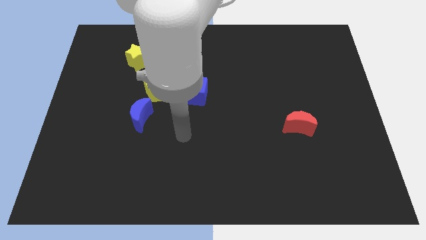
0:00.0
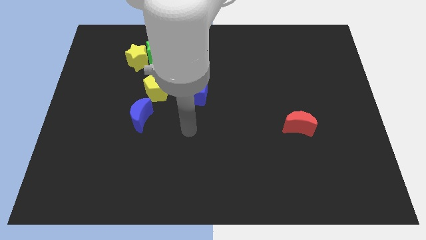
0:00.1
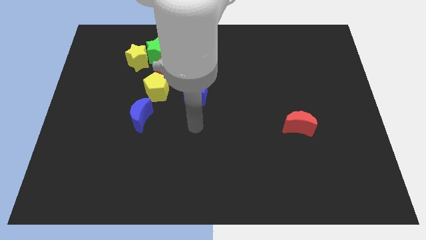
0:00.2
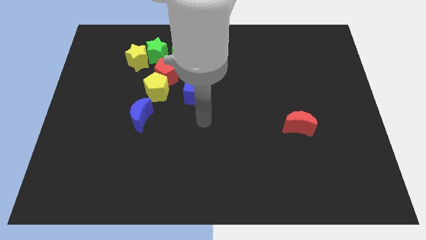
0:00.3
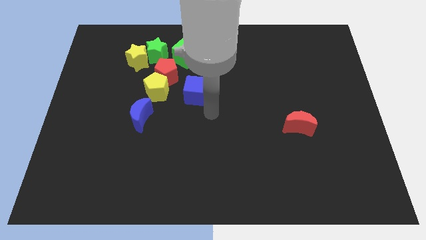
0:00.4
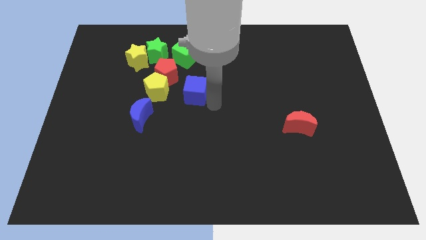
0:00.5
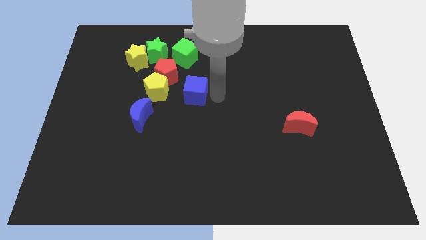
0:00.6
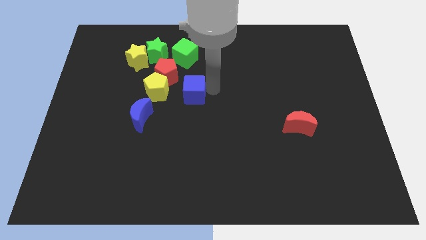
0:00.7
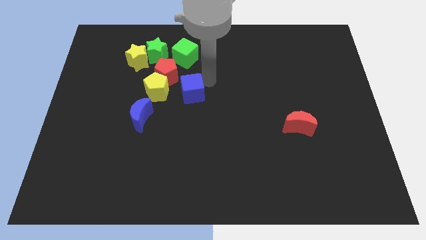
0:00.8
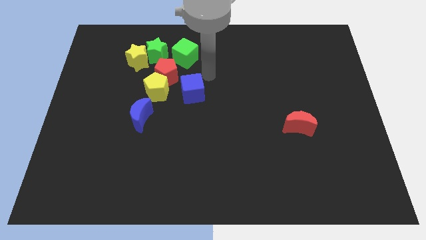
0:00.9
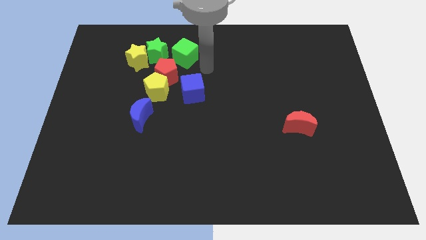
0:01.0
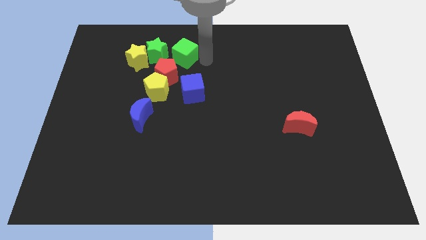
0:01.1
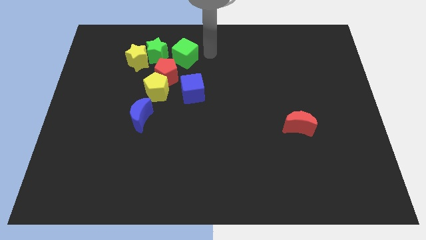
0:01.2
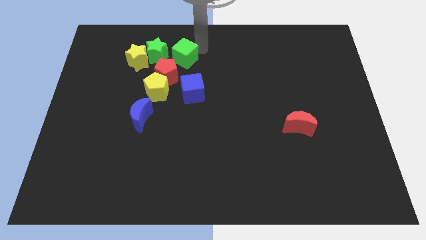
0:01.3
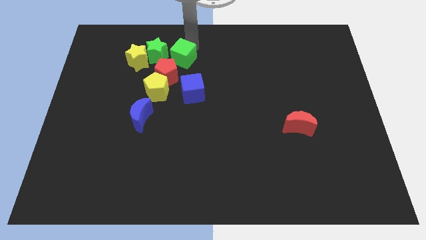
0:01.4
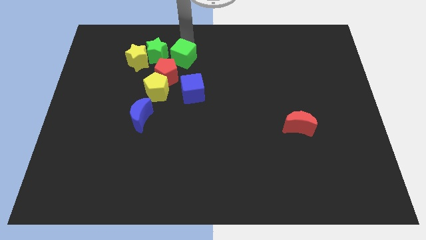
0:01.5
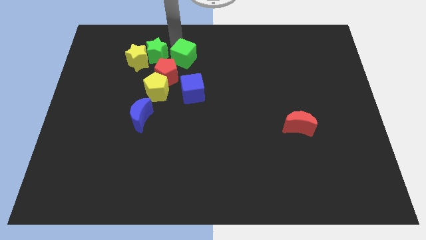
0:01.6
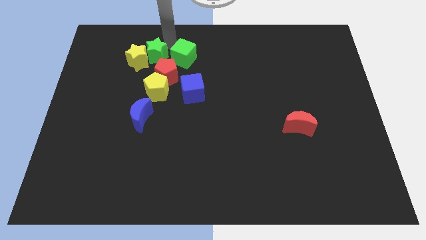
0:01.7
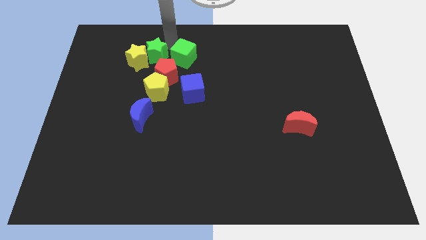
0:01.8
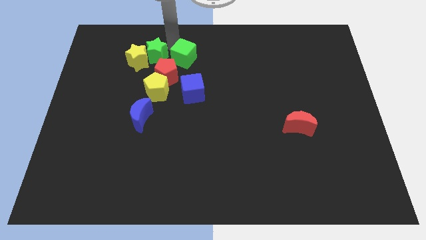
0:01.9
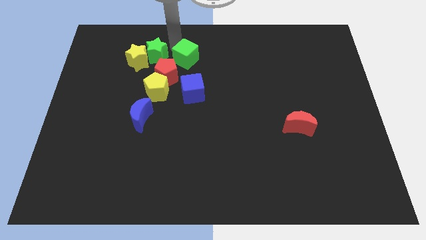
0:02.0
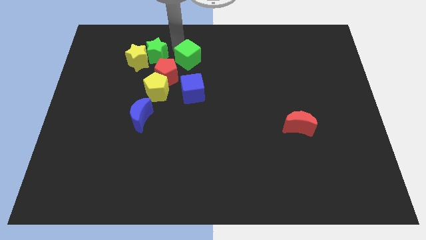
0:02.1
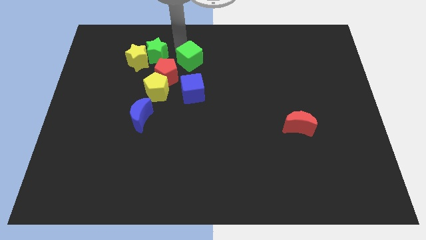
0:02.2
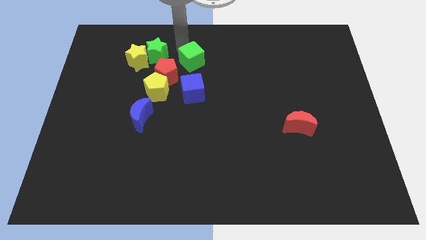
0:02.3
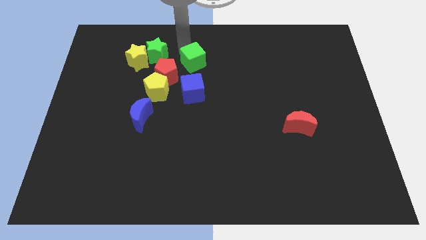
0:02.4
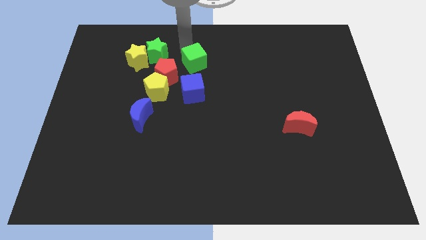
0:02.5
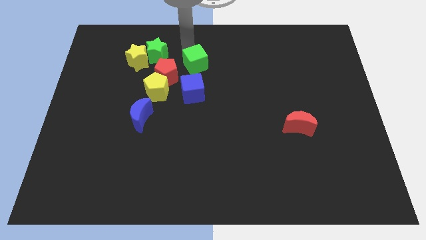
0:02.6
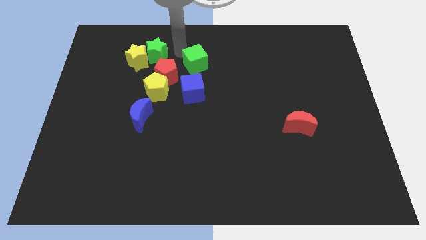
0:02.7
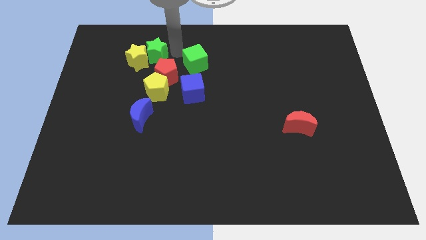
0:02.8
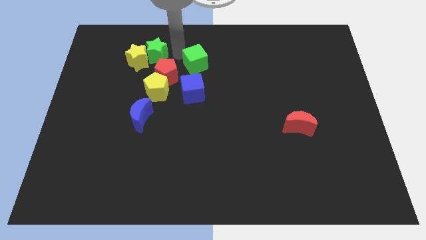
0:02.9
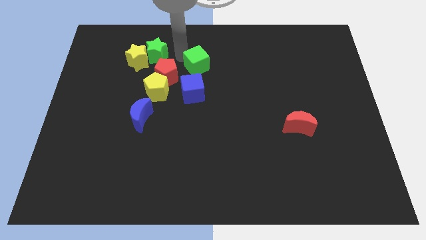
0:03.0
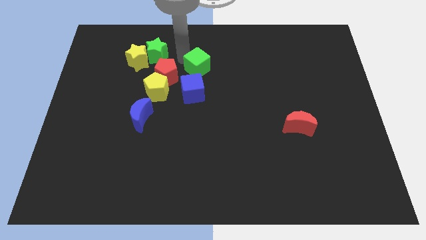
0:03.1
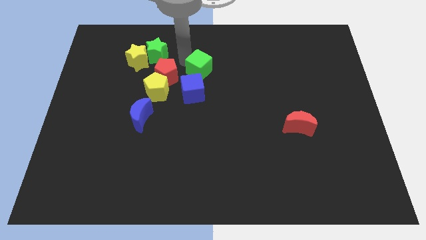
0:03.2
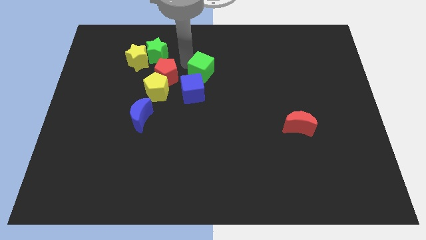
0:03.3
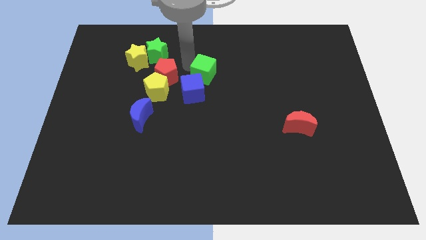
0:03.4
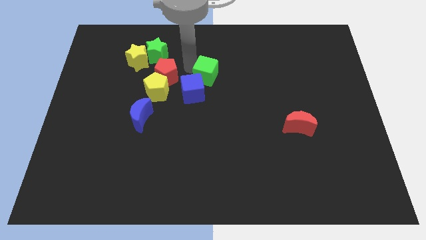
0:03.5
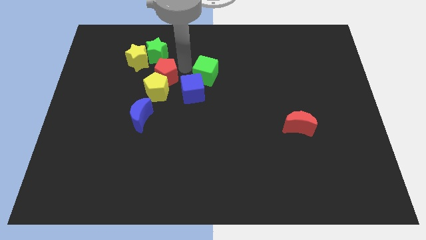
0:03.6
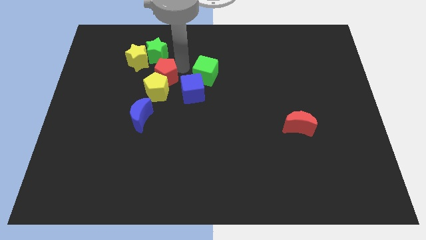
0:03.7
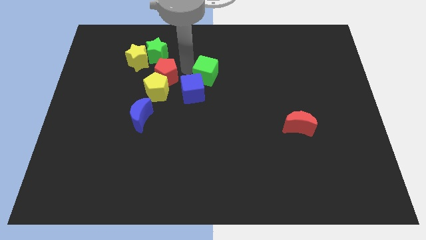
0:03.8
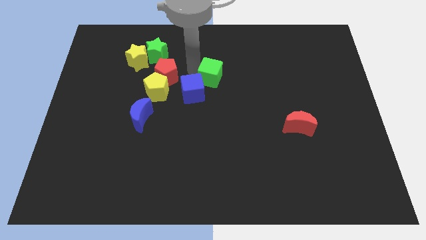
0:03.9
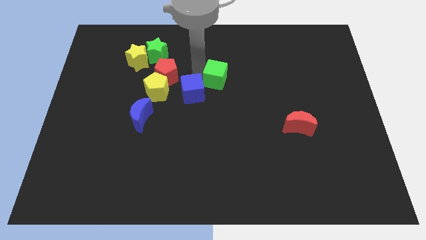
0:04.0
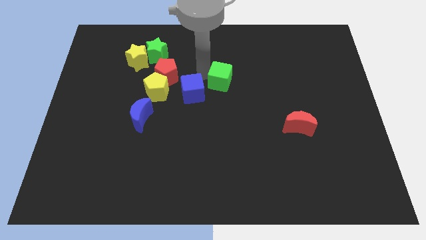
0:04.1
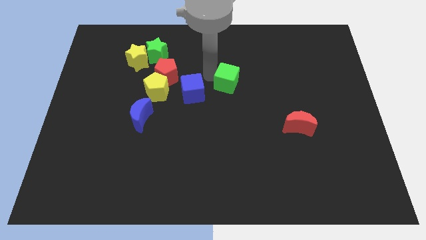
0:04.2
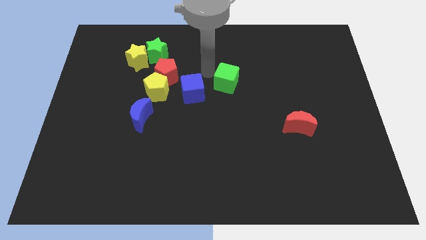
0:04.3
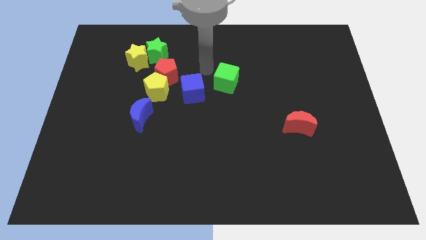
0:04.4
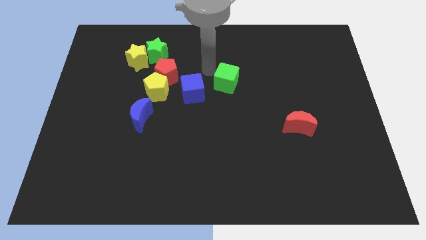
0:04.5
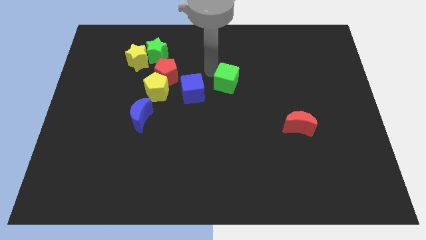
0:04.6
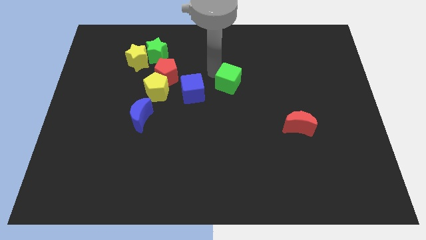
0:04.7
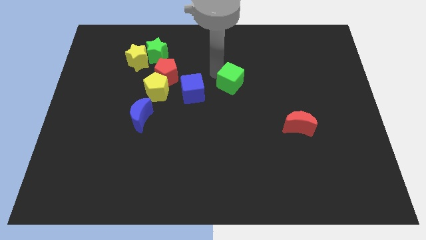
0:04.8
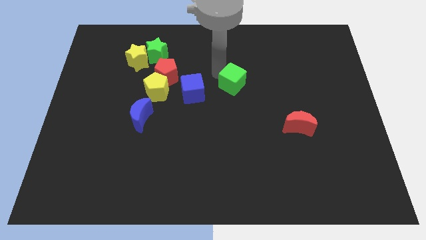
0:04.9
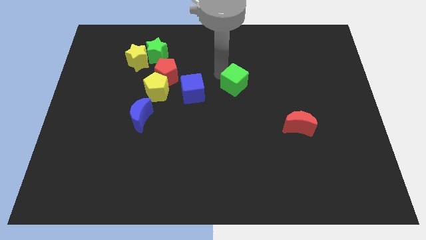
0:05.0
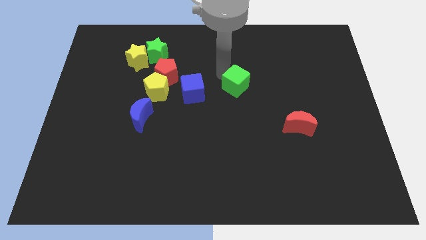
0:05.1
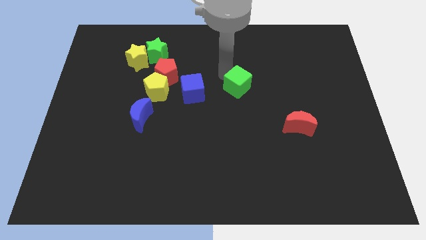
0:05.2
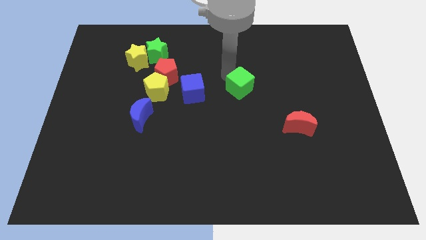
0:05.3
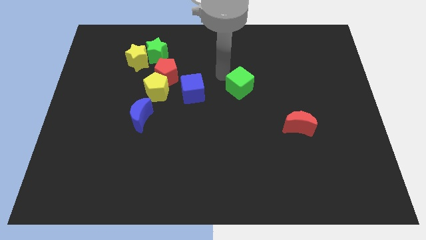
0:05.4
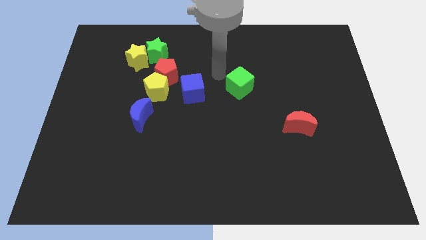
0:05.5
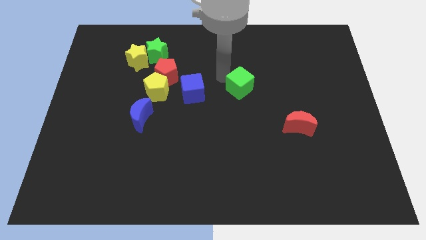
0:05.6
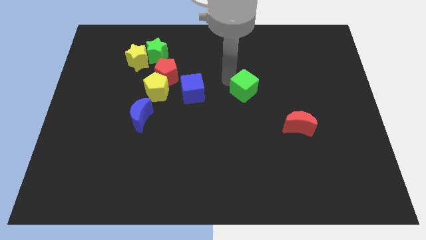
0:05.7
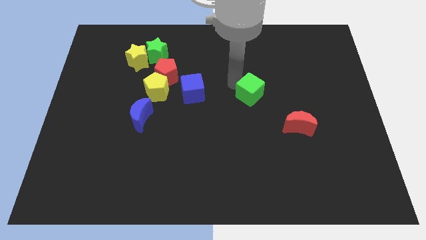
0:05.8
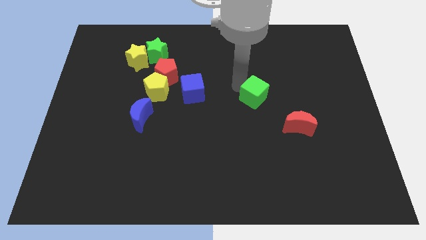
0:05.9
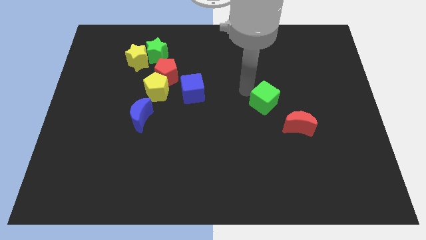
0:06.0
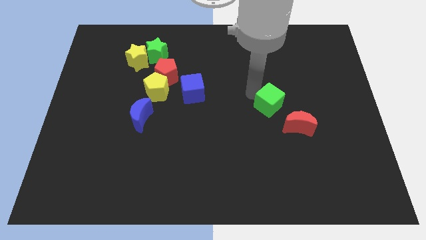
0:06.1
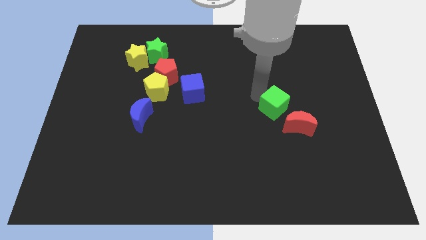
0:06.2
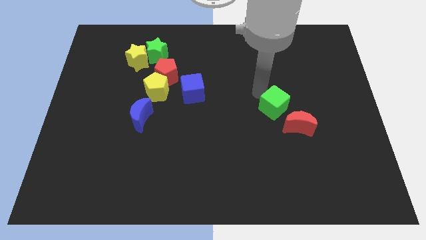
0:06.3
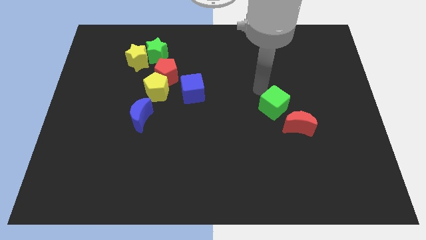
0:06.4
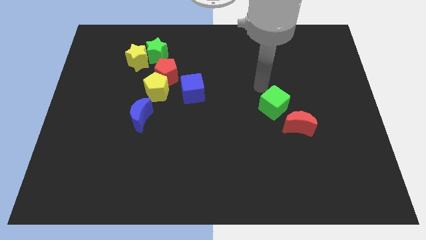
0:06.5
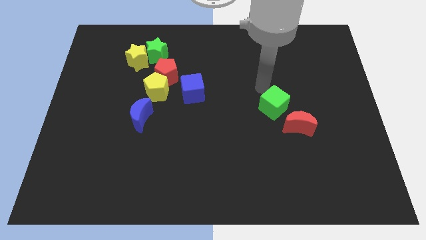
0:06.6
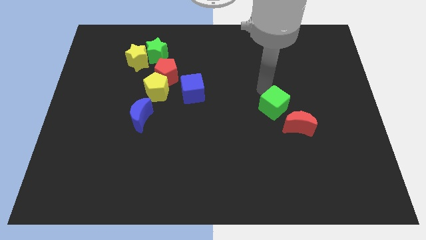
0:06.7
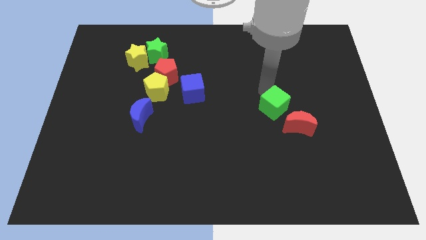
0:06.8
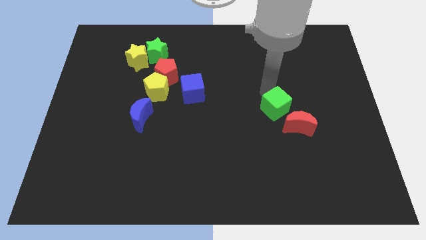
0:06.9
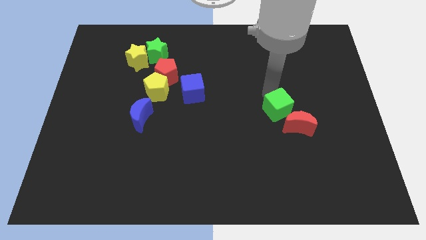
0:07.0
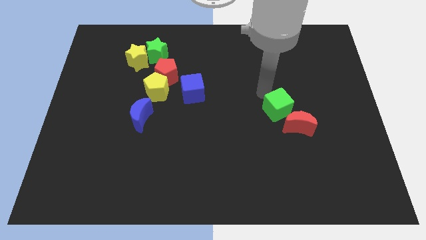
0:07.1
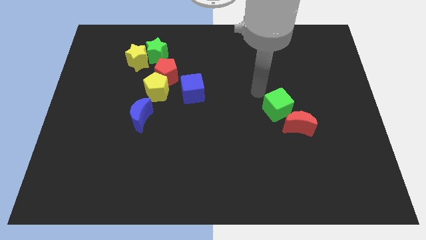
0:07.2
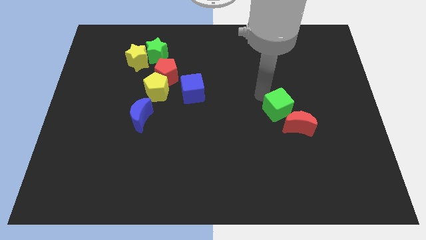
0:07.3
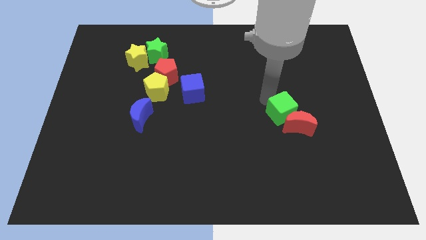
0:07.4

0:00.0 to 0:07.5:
put the green cube to the red moon
